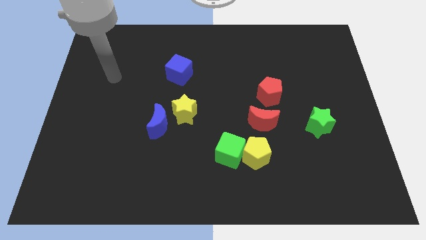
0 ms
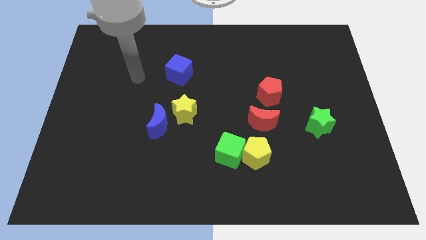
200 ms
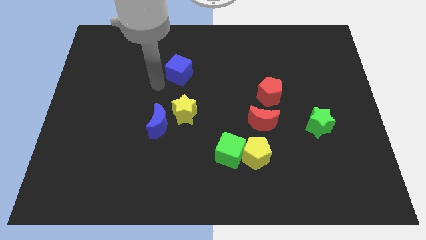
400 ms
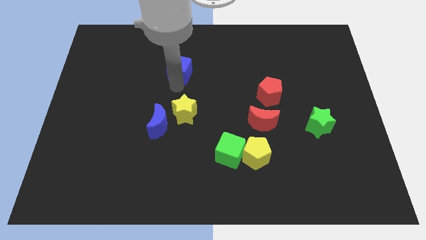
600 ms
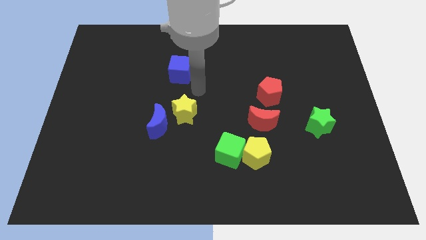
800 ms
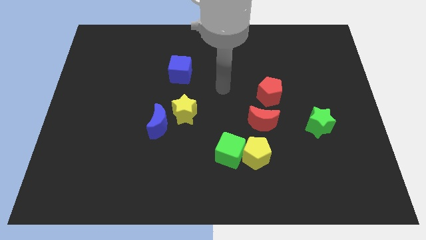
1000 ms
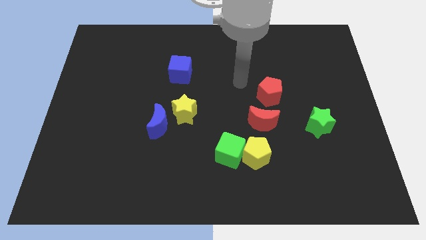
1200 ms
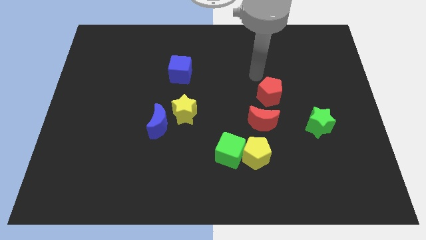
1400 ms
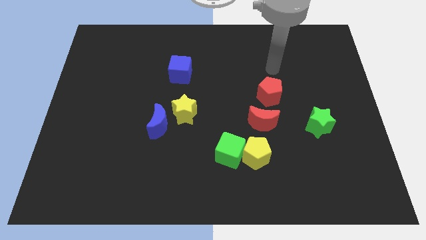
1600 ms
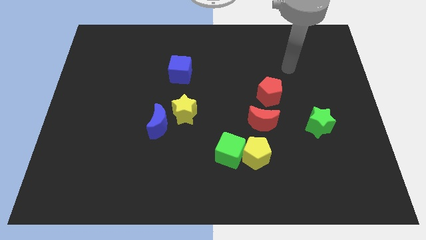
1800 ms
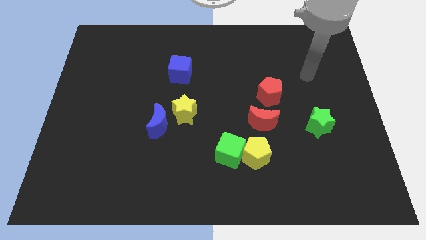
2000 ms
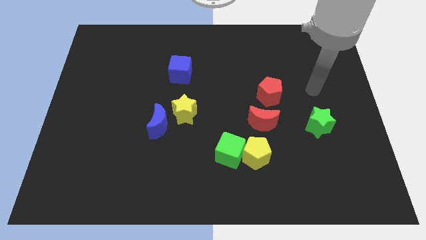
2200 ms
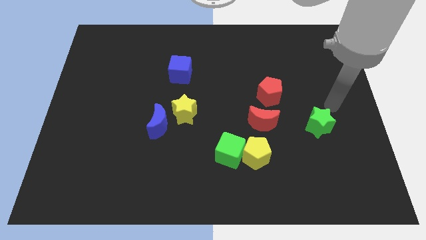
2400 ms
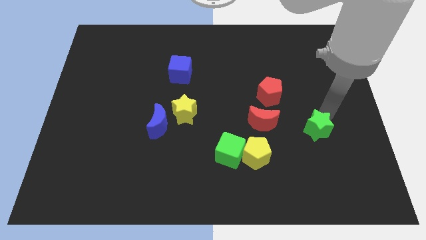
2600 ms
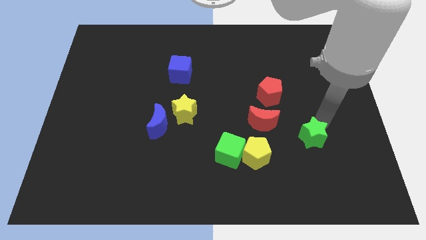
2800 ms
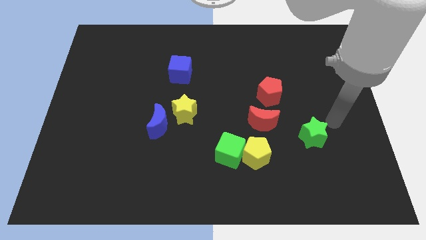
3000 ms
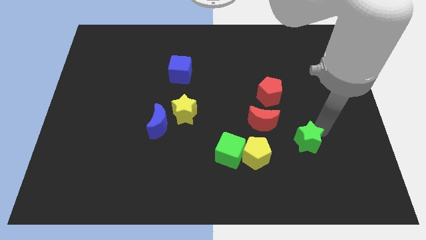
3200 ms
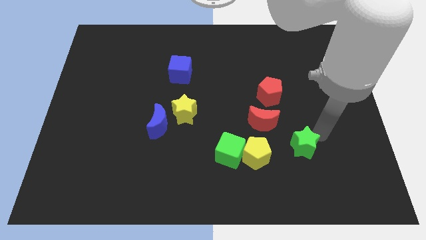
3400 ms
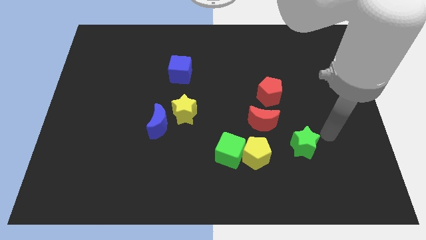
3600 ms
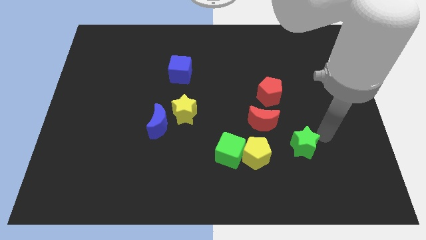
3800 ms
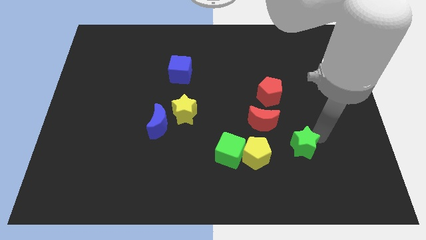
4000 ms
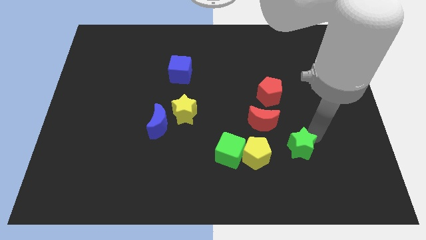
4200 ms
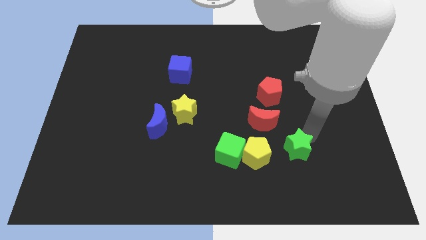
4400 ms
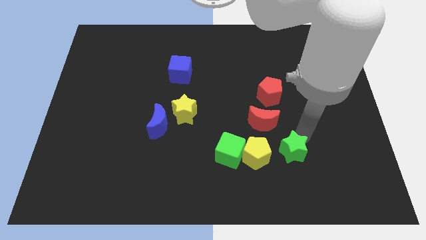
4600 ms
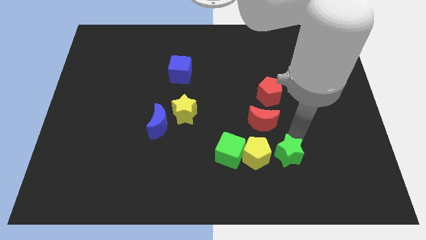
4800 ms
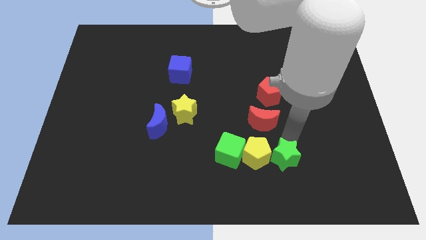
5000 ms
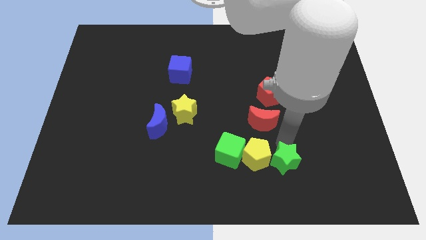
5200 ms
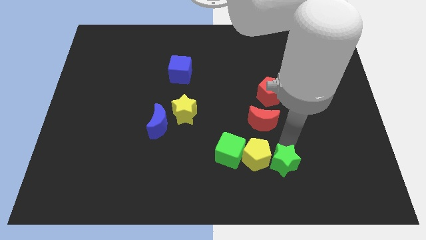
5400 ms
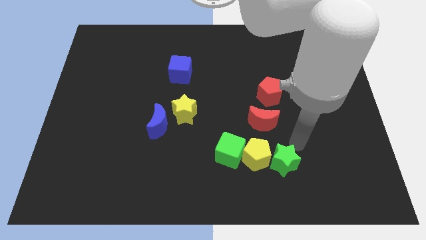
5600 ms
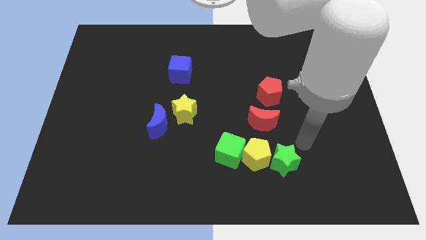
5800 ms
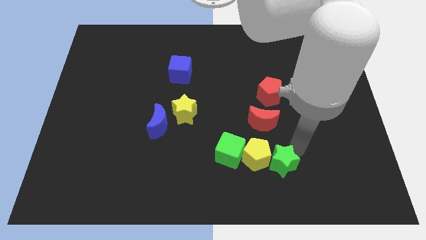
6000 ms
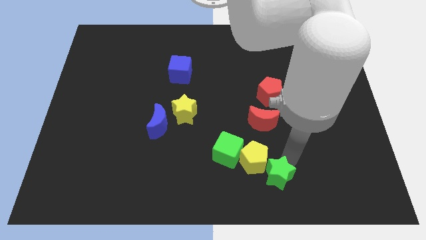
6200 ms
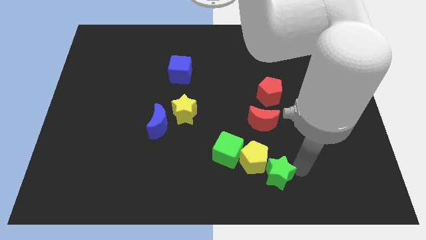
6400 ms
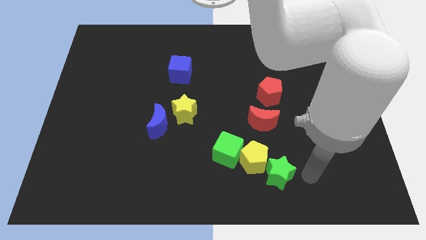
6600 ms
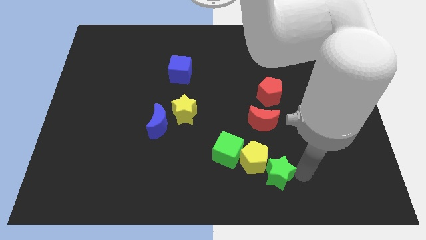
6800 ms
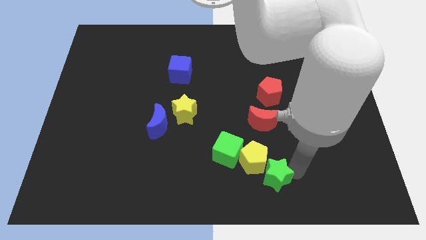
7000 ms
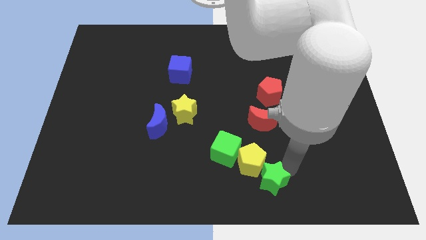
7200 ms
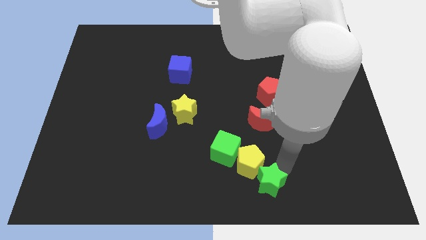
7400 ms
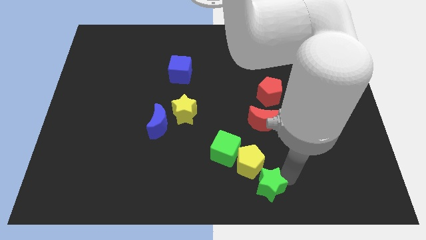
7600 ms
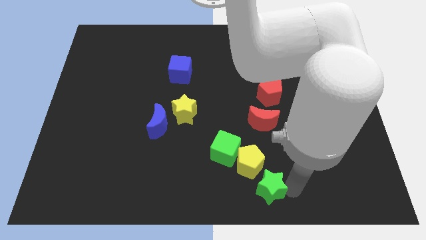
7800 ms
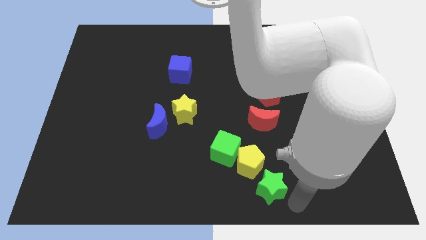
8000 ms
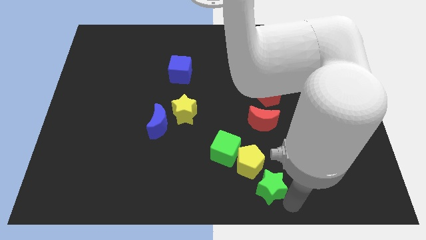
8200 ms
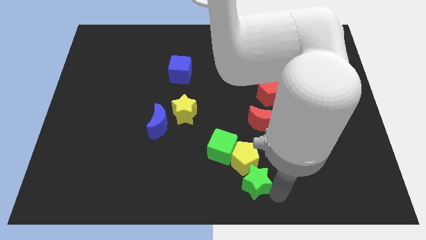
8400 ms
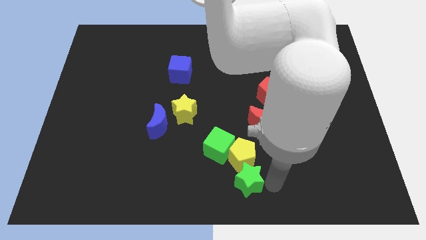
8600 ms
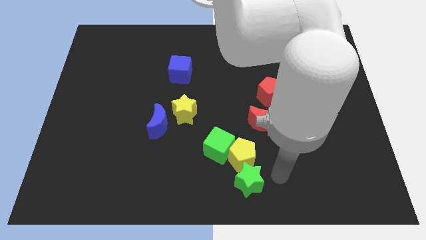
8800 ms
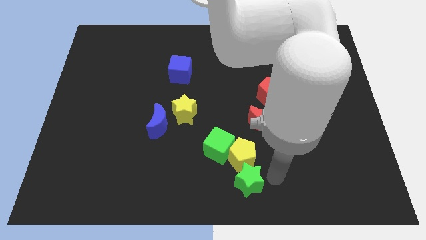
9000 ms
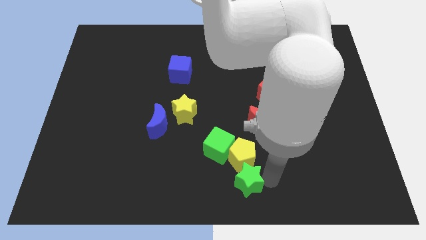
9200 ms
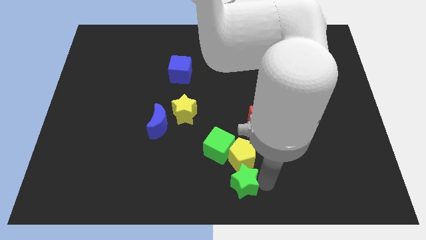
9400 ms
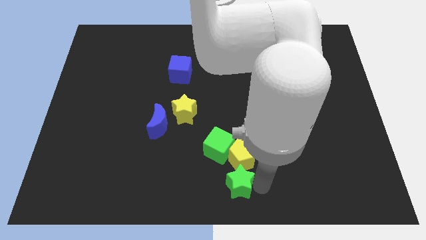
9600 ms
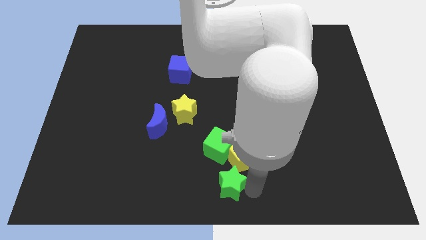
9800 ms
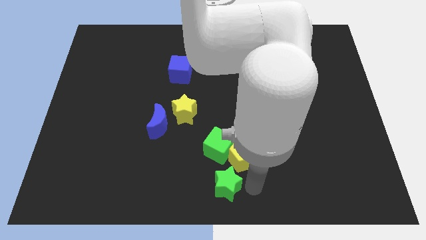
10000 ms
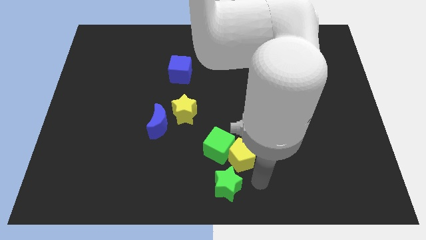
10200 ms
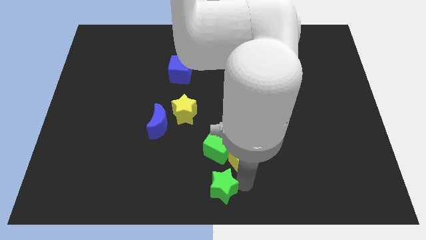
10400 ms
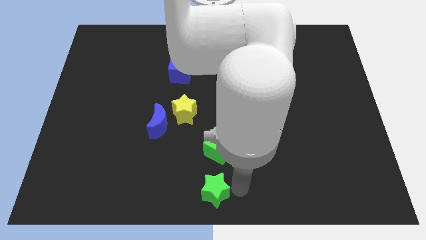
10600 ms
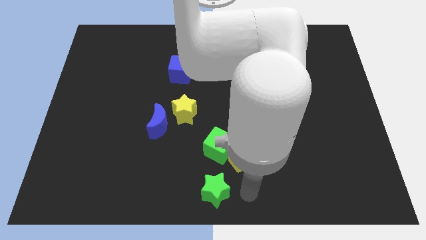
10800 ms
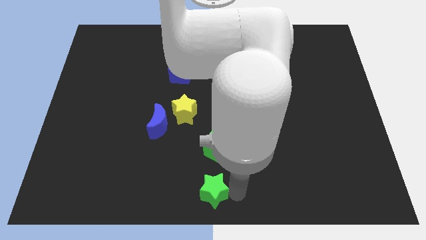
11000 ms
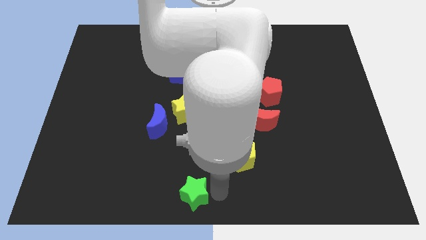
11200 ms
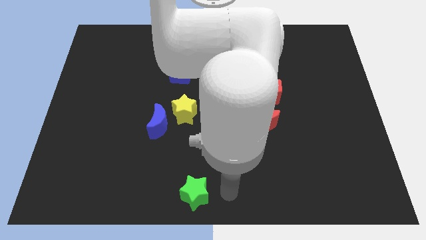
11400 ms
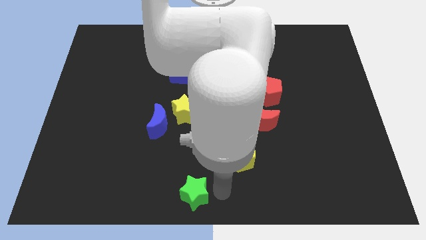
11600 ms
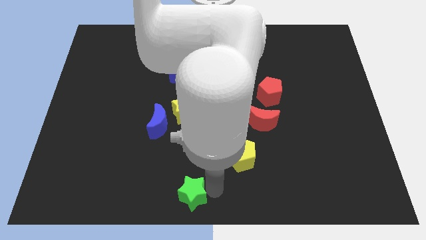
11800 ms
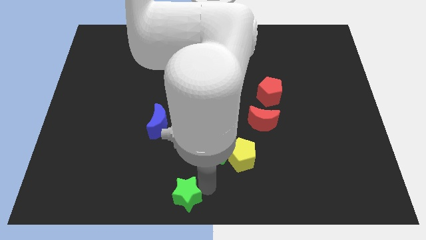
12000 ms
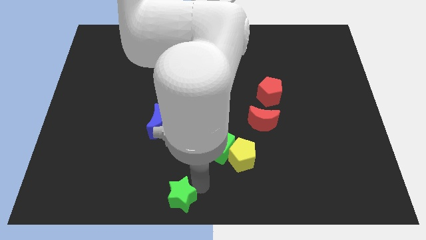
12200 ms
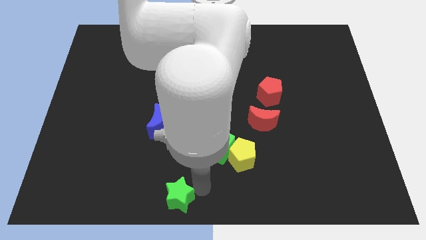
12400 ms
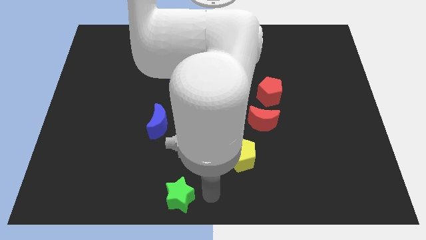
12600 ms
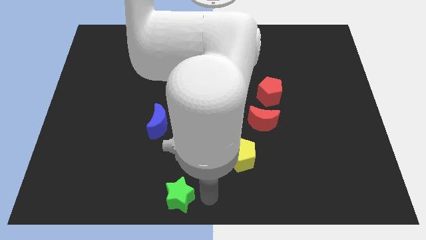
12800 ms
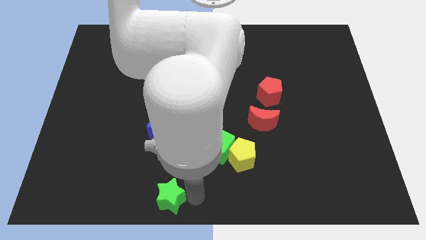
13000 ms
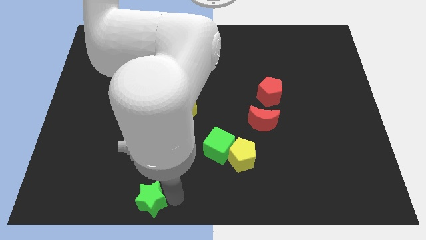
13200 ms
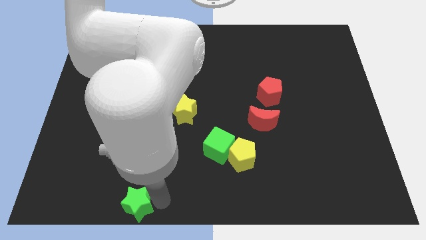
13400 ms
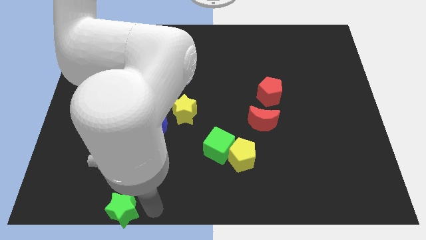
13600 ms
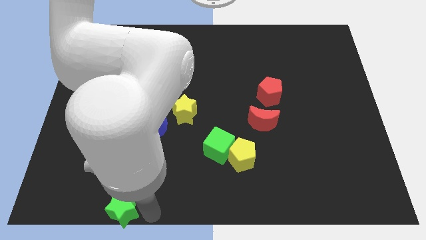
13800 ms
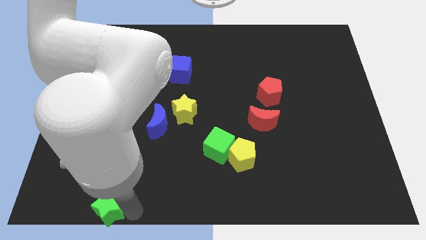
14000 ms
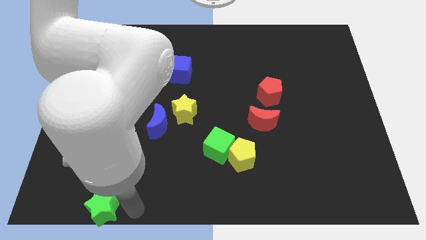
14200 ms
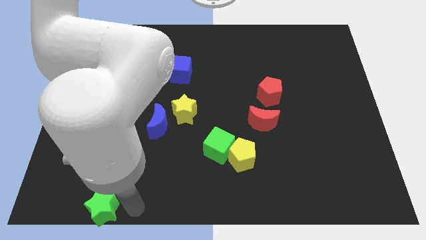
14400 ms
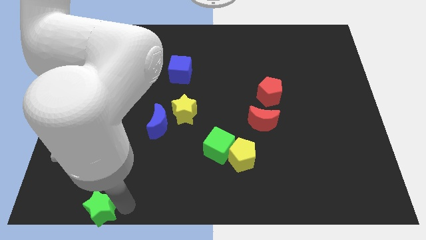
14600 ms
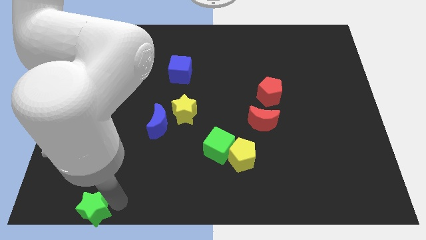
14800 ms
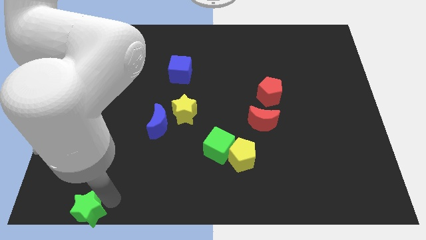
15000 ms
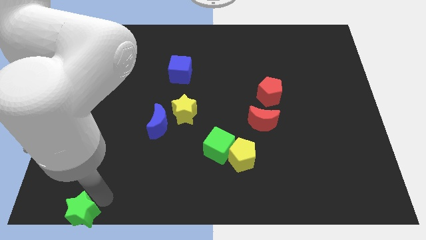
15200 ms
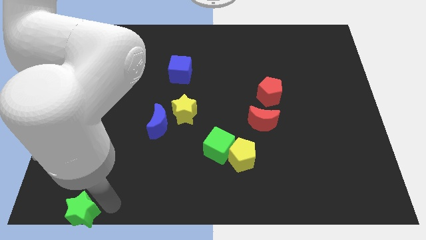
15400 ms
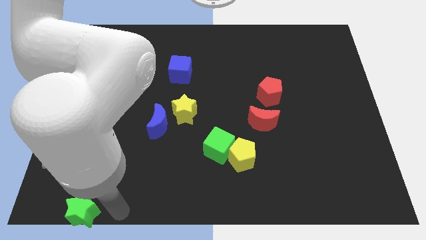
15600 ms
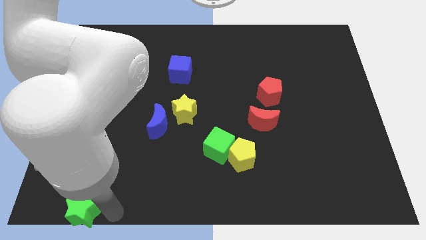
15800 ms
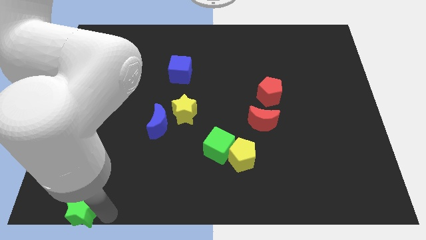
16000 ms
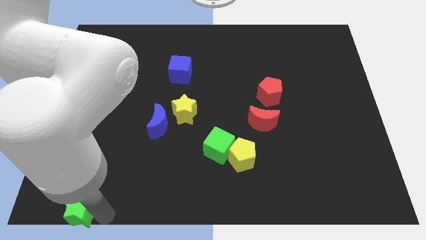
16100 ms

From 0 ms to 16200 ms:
push the green star to the bottom left corner
